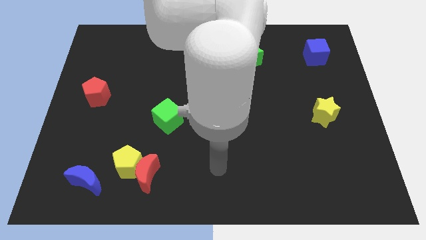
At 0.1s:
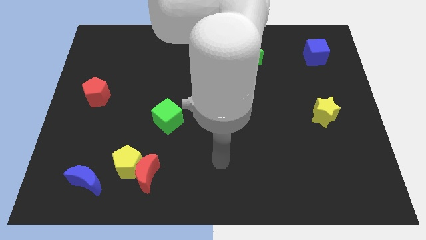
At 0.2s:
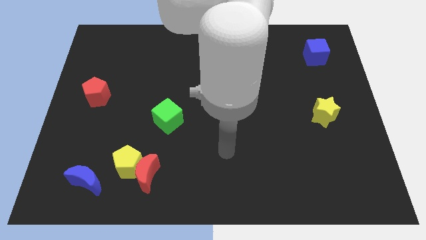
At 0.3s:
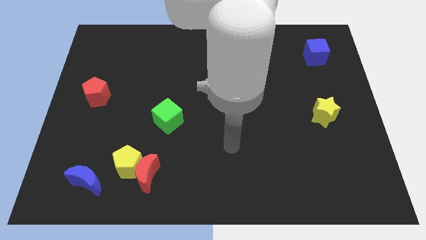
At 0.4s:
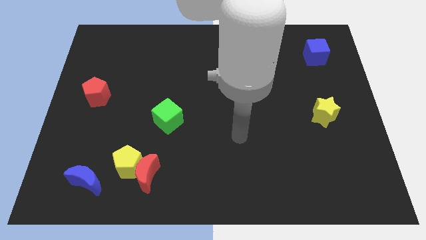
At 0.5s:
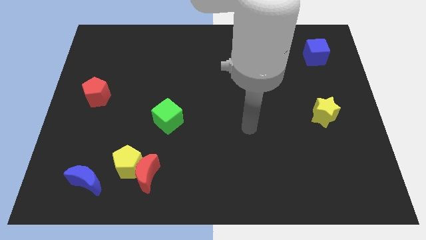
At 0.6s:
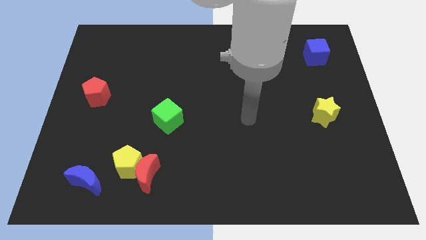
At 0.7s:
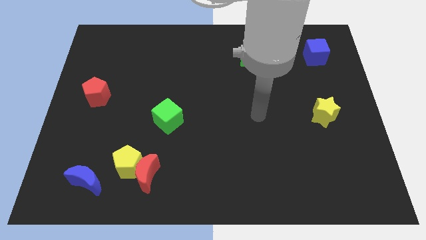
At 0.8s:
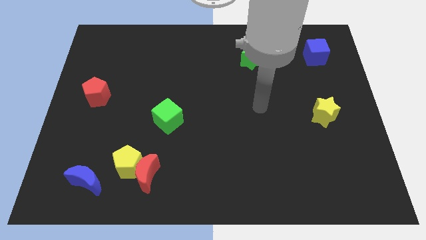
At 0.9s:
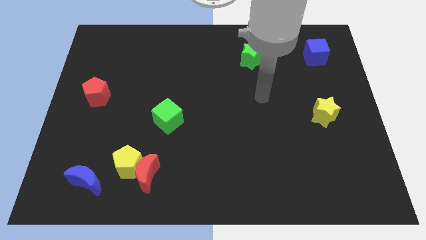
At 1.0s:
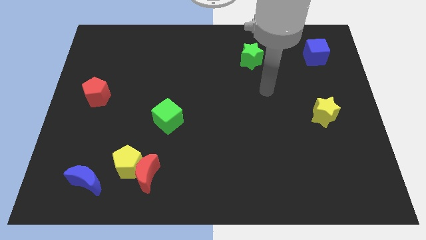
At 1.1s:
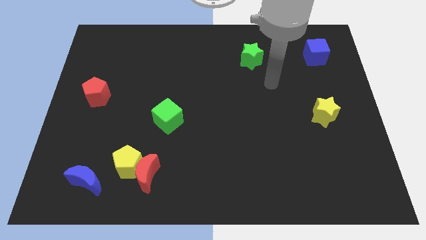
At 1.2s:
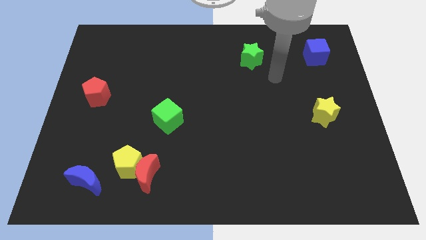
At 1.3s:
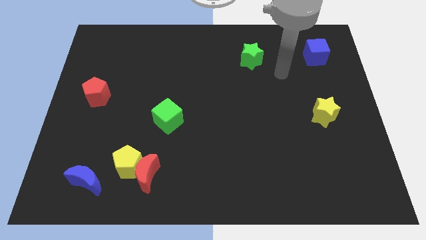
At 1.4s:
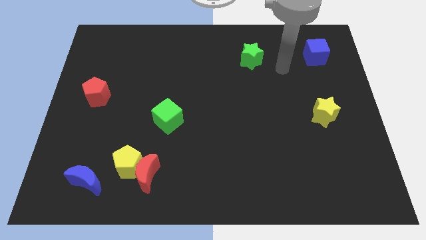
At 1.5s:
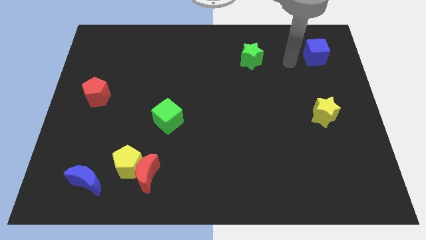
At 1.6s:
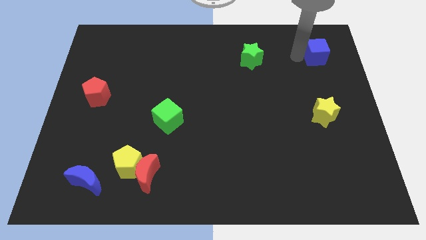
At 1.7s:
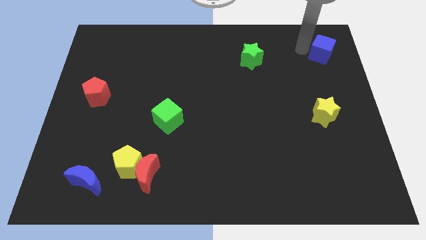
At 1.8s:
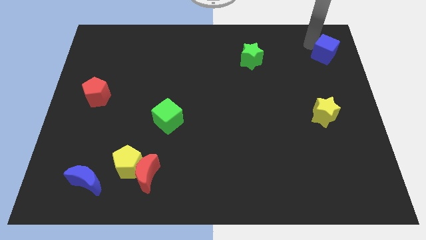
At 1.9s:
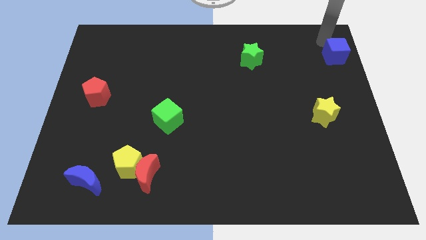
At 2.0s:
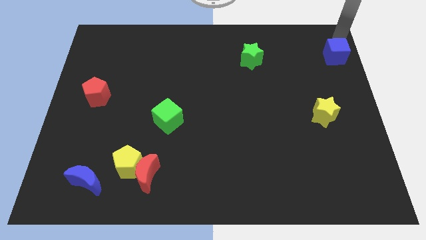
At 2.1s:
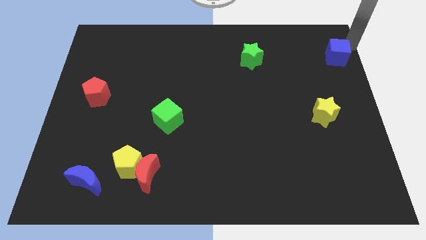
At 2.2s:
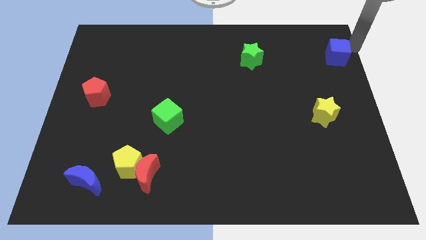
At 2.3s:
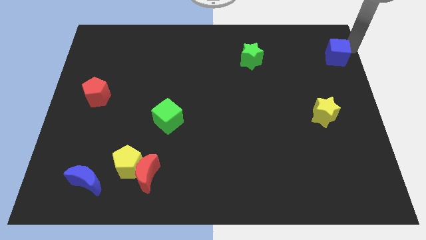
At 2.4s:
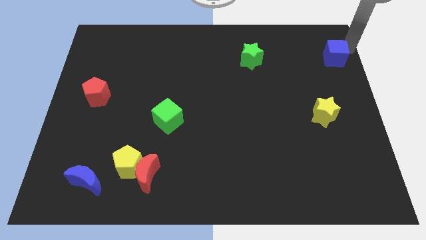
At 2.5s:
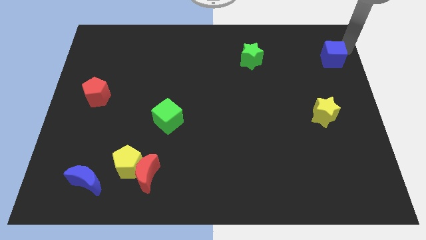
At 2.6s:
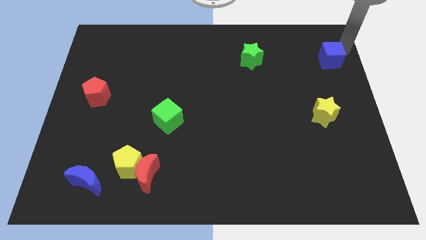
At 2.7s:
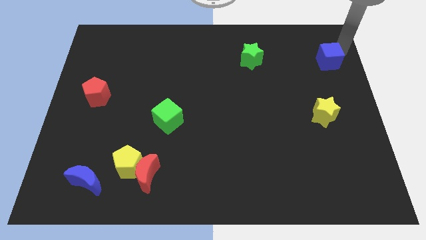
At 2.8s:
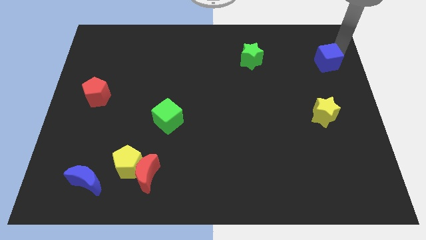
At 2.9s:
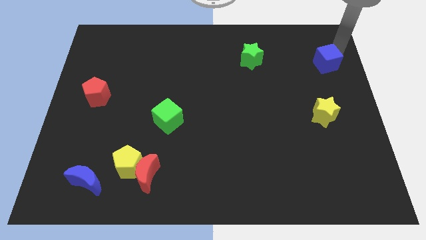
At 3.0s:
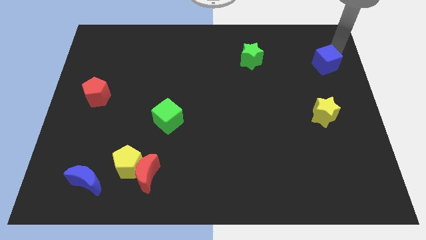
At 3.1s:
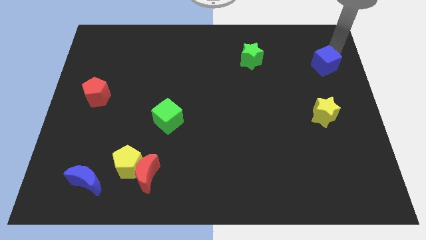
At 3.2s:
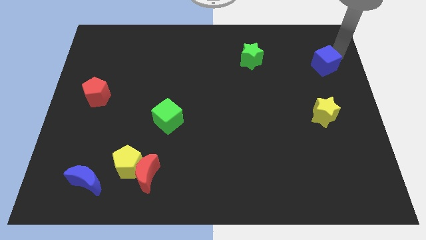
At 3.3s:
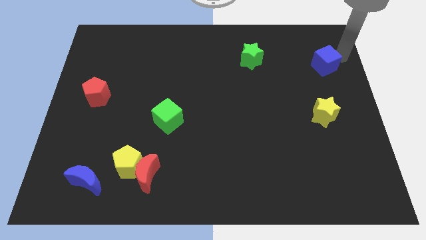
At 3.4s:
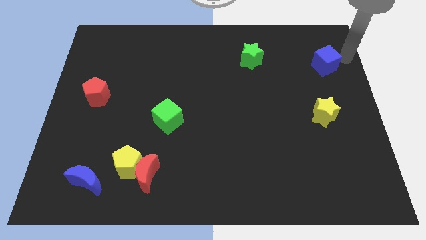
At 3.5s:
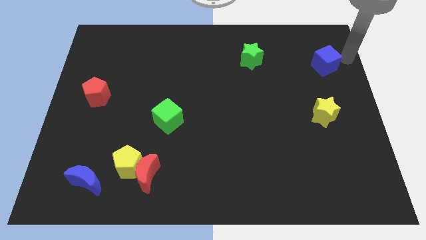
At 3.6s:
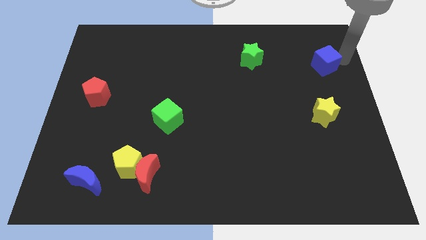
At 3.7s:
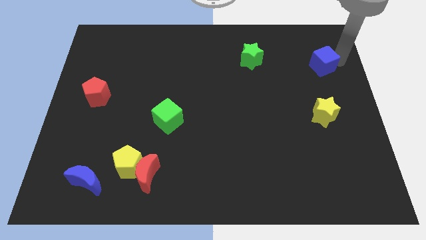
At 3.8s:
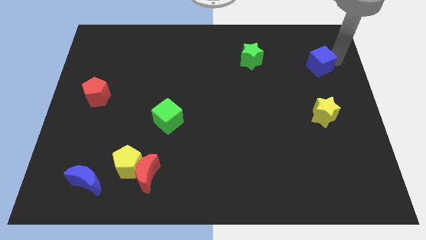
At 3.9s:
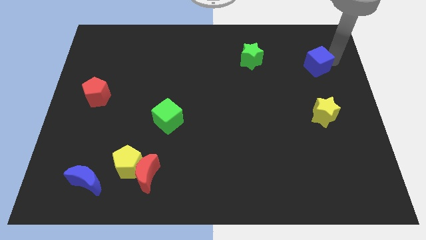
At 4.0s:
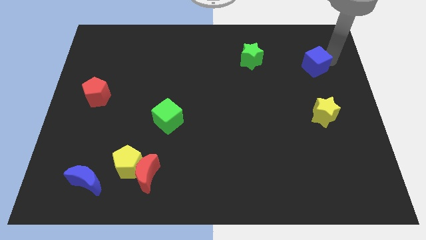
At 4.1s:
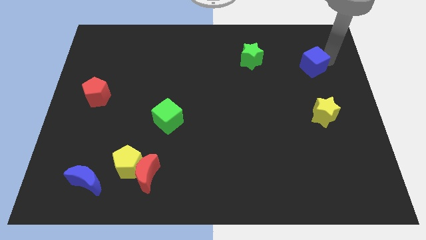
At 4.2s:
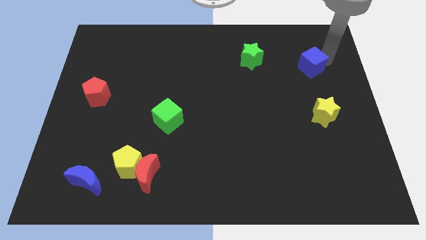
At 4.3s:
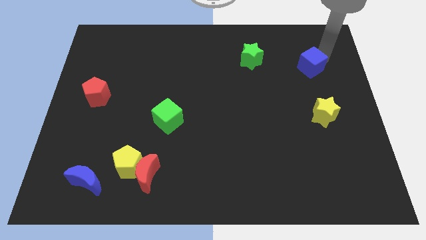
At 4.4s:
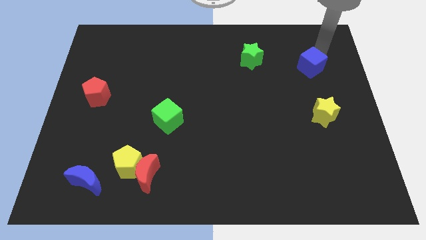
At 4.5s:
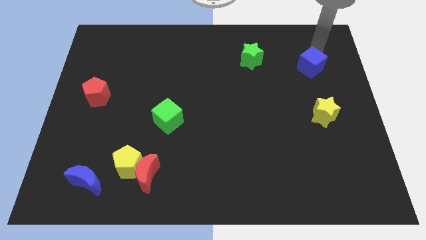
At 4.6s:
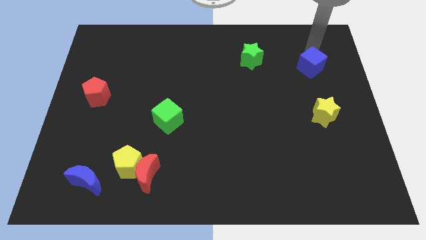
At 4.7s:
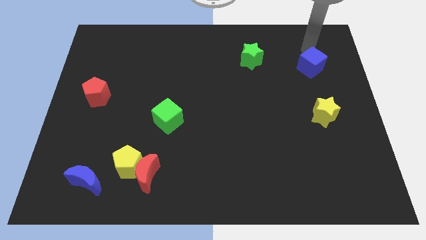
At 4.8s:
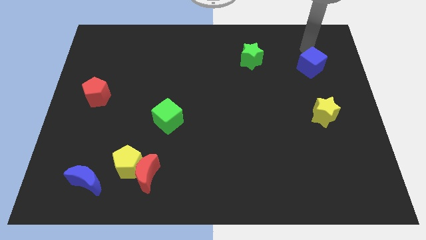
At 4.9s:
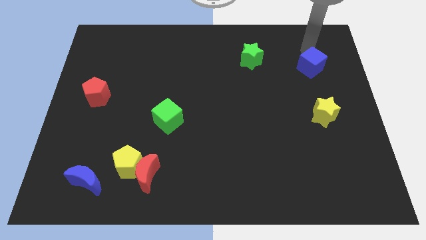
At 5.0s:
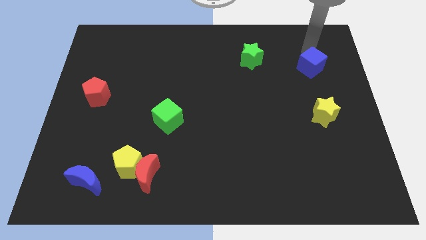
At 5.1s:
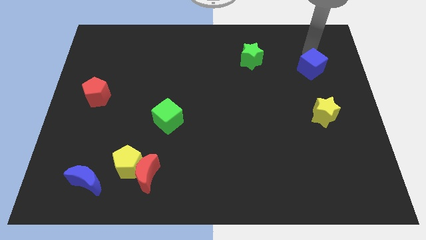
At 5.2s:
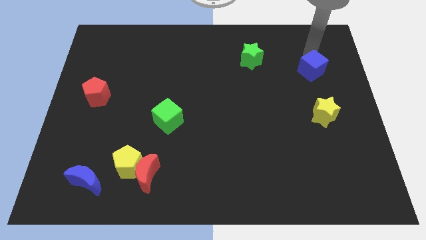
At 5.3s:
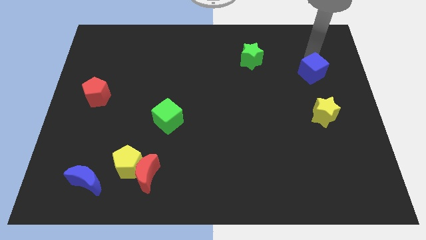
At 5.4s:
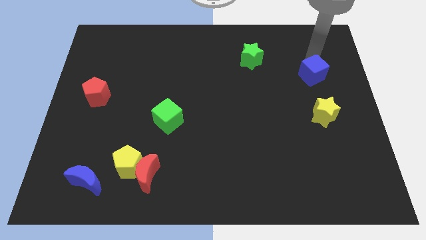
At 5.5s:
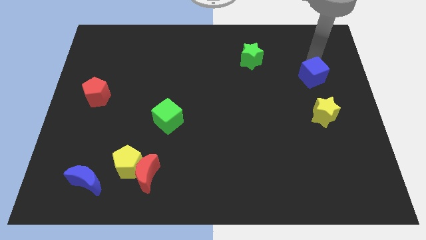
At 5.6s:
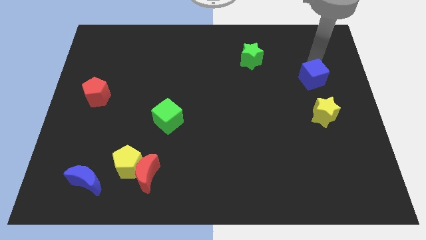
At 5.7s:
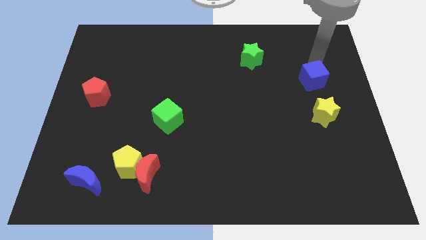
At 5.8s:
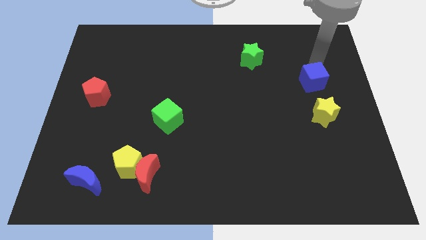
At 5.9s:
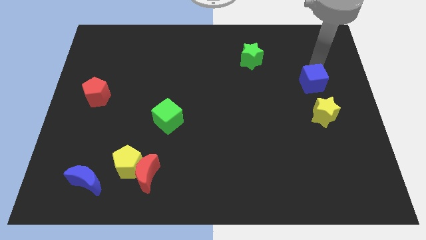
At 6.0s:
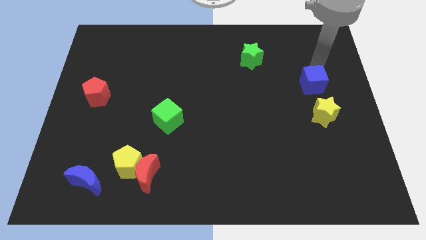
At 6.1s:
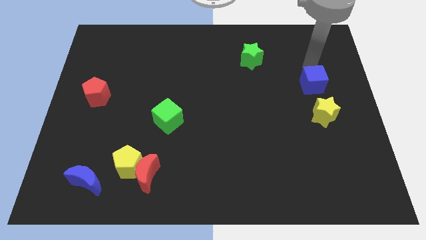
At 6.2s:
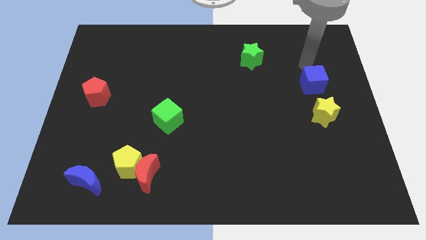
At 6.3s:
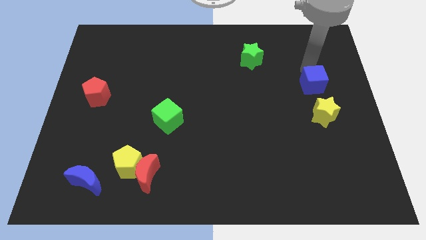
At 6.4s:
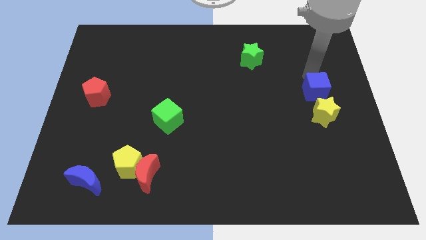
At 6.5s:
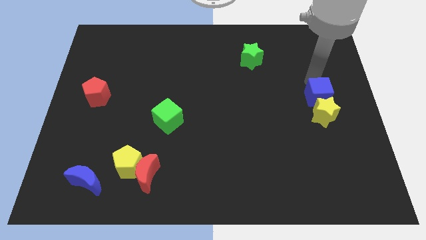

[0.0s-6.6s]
push the blue cube close to the yellow star

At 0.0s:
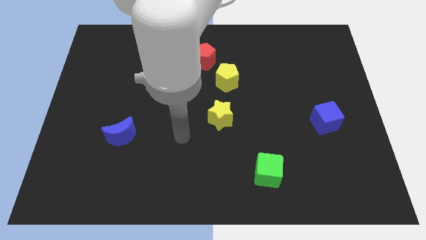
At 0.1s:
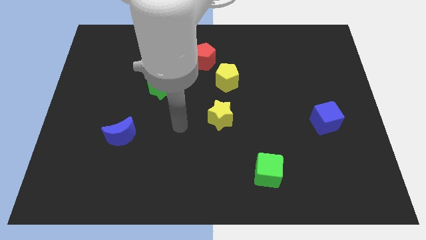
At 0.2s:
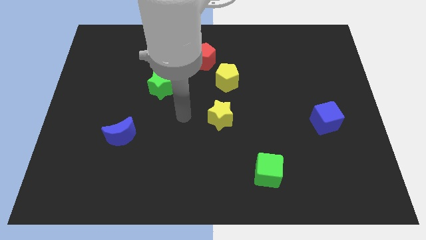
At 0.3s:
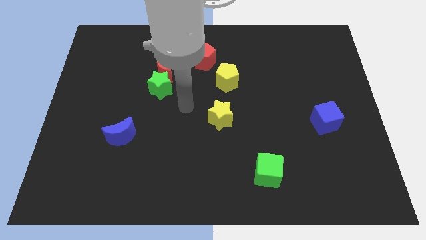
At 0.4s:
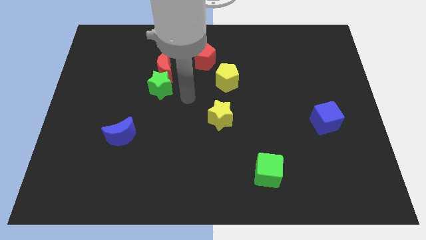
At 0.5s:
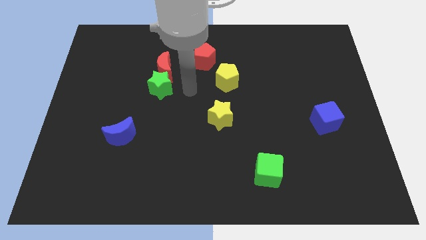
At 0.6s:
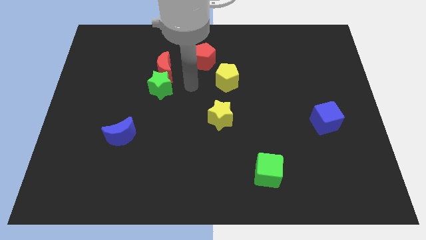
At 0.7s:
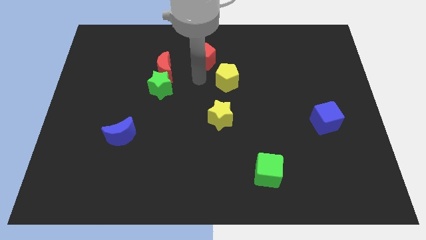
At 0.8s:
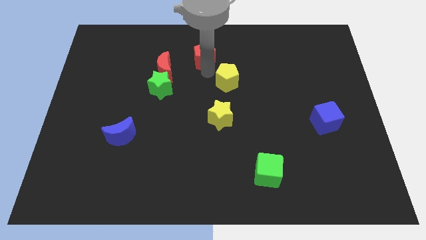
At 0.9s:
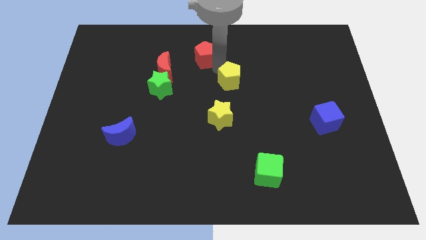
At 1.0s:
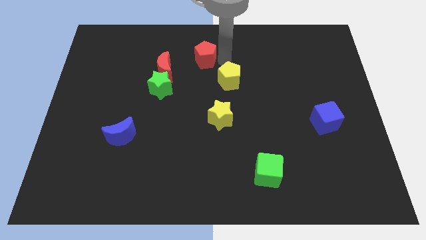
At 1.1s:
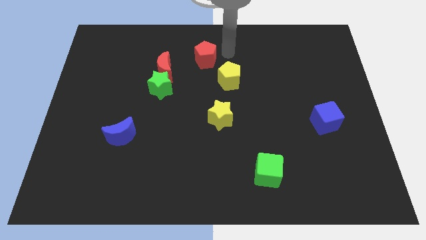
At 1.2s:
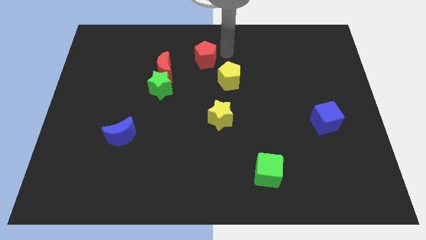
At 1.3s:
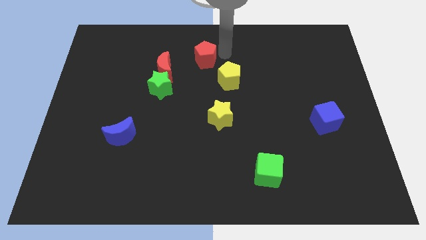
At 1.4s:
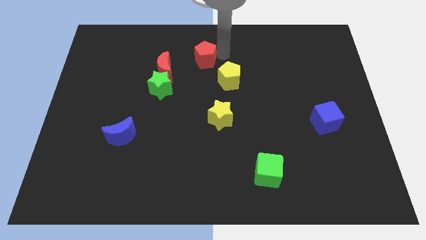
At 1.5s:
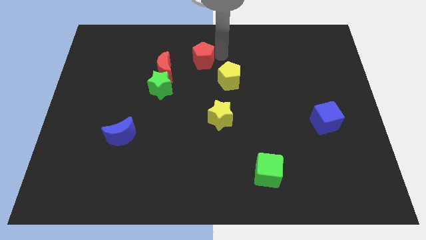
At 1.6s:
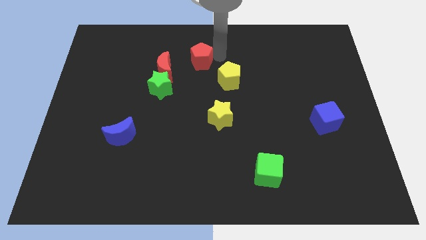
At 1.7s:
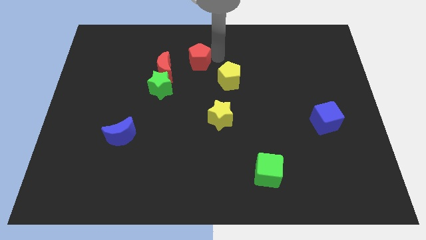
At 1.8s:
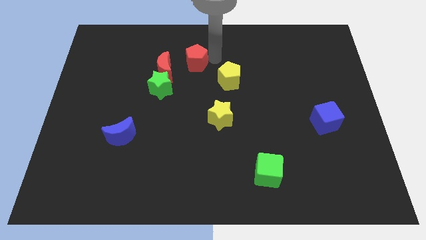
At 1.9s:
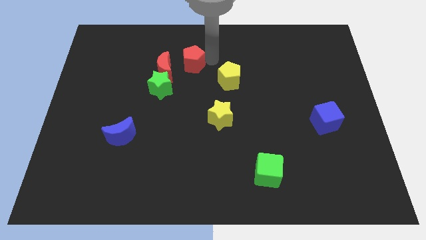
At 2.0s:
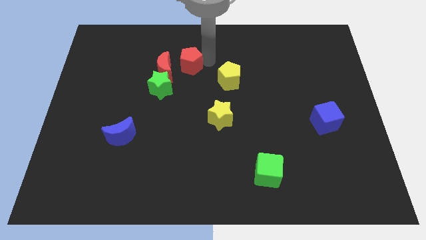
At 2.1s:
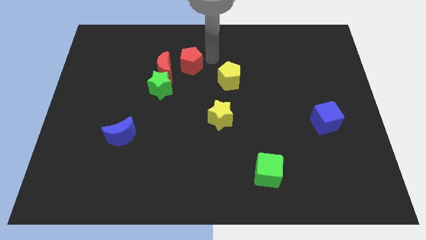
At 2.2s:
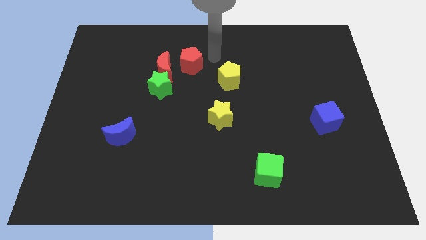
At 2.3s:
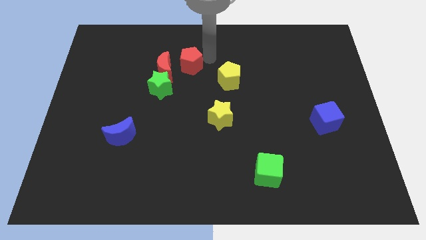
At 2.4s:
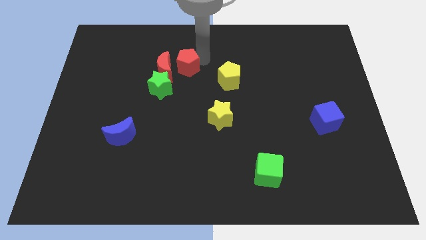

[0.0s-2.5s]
move the red pentagon close to the red moon
